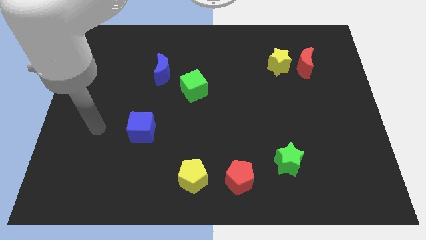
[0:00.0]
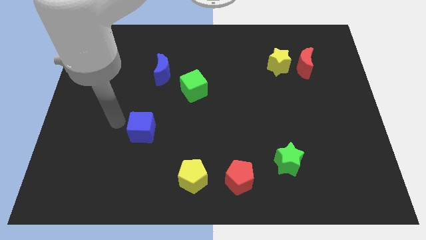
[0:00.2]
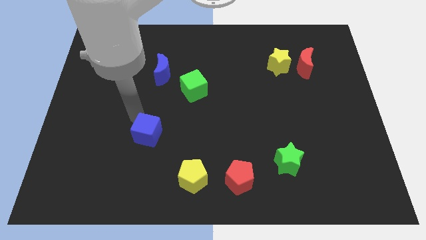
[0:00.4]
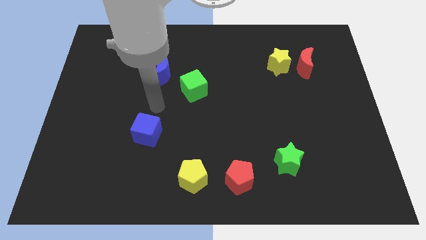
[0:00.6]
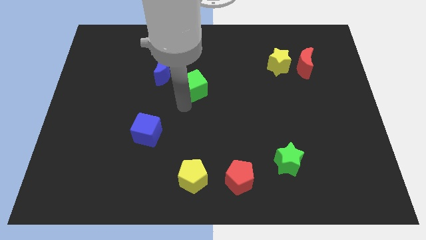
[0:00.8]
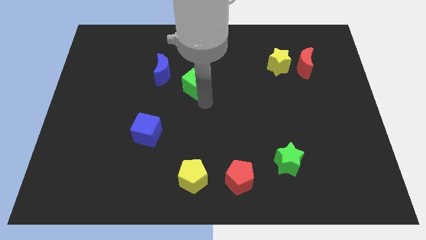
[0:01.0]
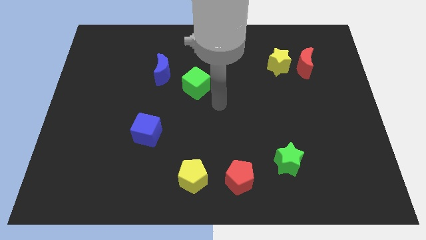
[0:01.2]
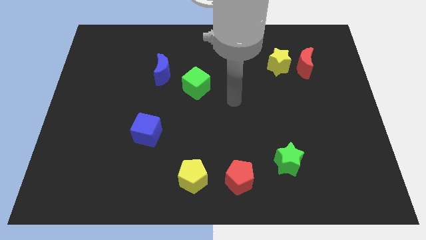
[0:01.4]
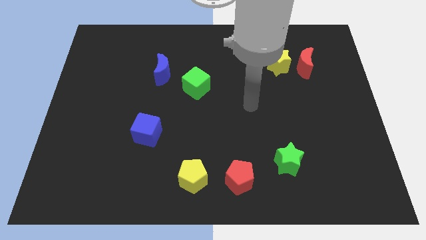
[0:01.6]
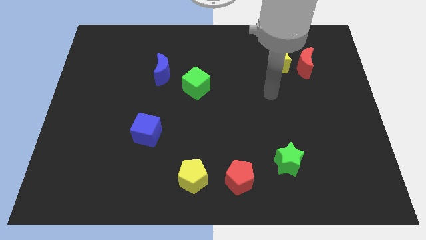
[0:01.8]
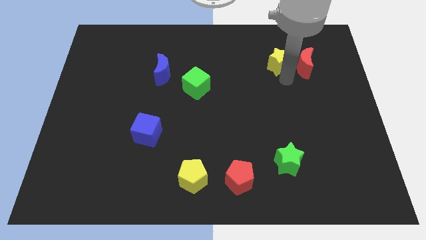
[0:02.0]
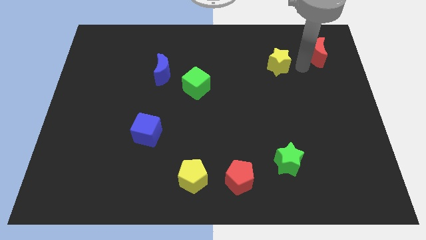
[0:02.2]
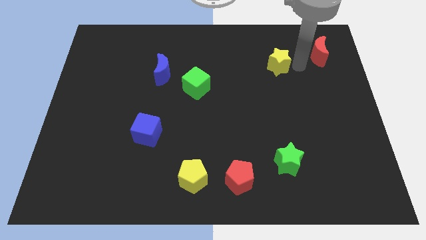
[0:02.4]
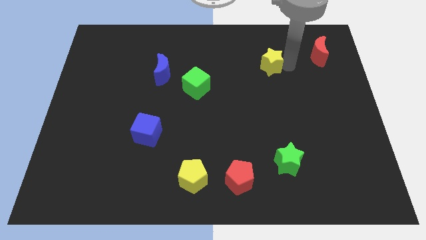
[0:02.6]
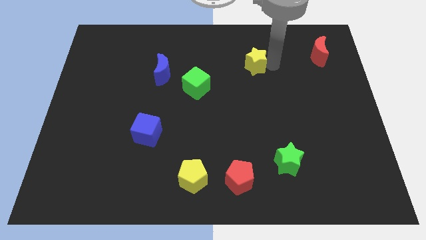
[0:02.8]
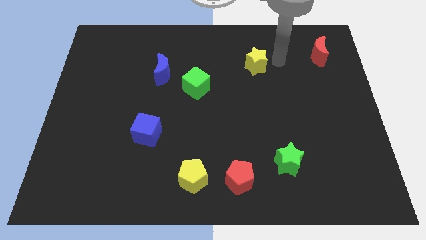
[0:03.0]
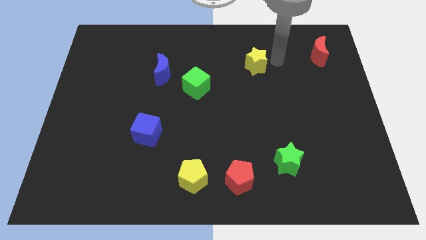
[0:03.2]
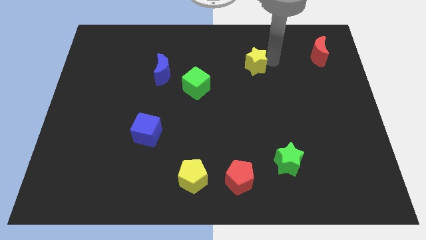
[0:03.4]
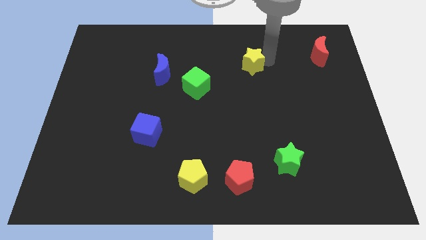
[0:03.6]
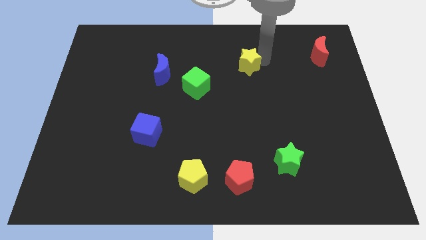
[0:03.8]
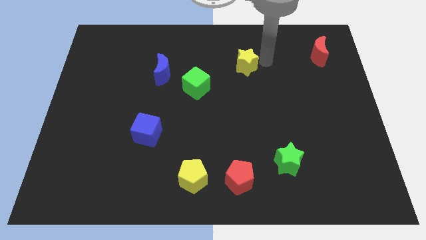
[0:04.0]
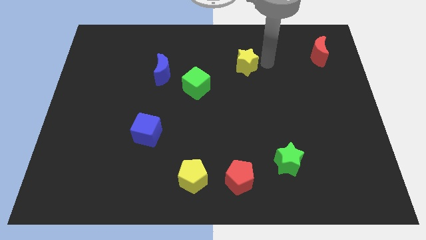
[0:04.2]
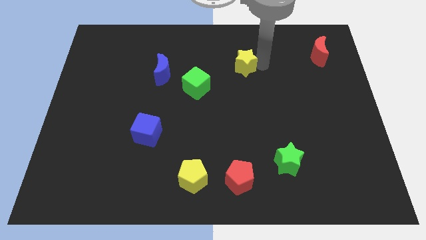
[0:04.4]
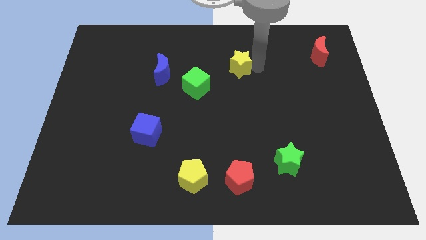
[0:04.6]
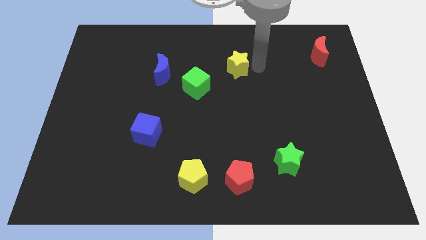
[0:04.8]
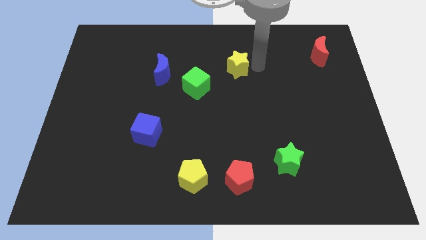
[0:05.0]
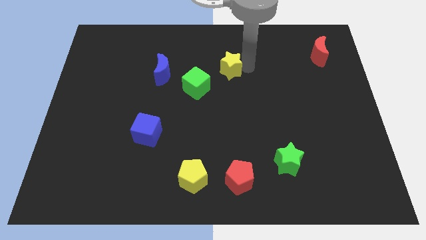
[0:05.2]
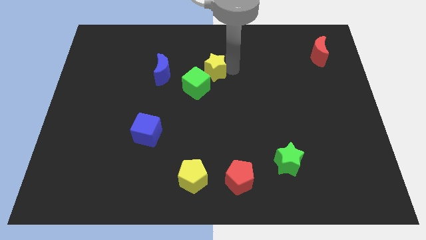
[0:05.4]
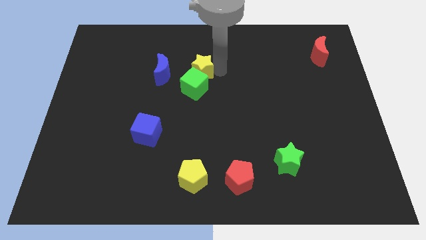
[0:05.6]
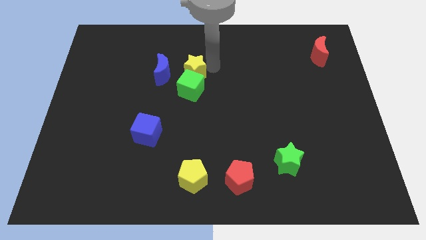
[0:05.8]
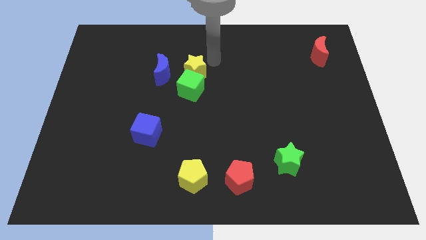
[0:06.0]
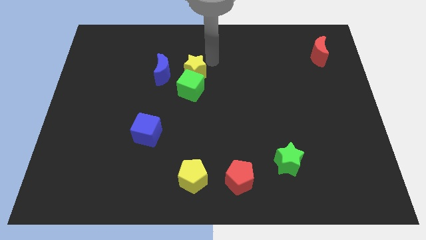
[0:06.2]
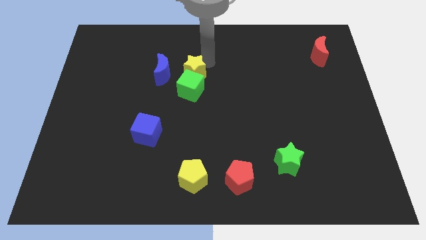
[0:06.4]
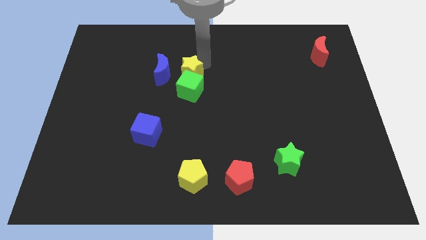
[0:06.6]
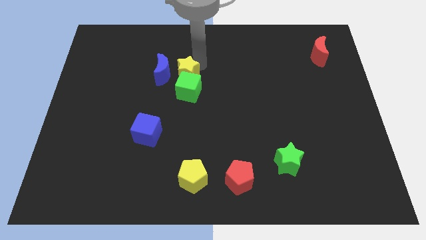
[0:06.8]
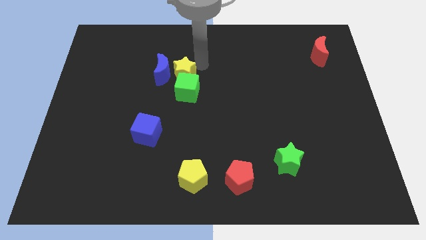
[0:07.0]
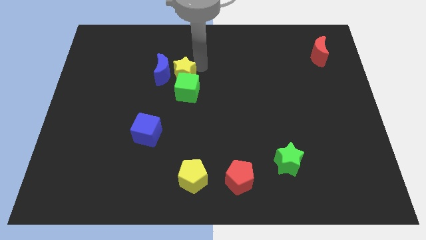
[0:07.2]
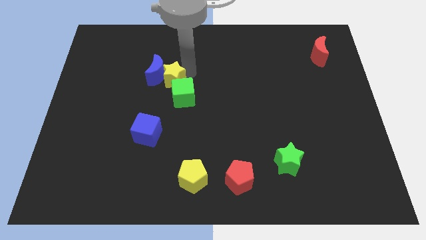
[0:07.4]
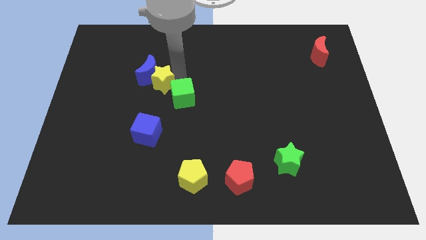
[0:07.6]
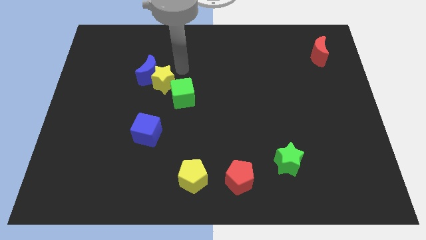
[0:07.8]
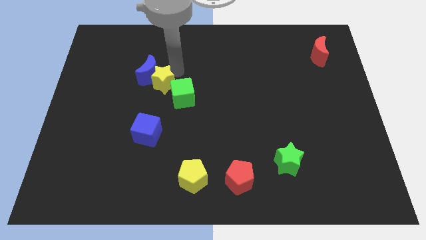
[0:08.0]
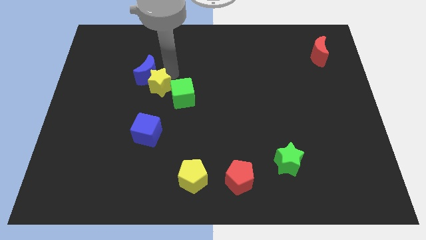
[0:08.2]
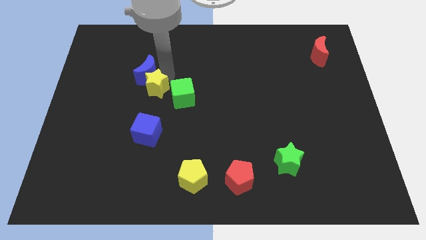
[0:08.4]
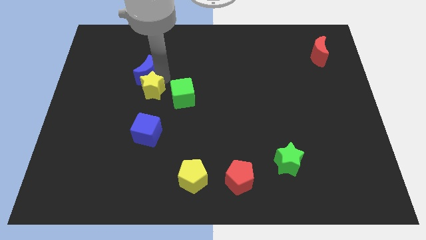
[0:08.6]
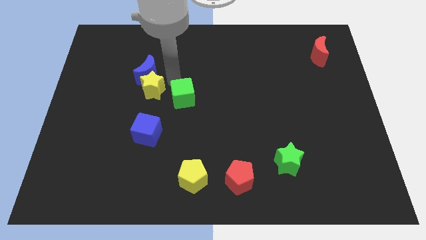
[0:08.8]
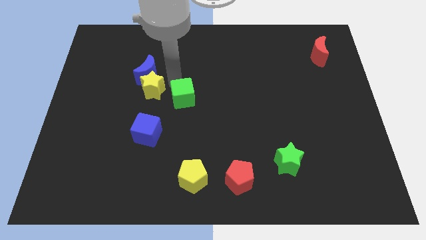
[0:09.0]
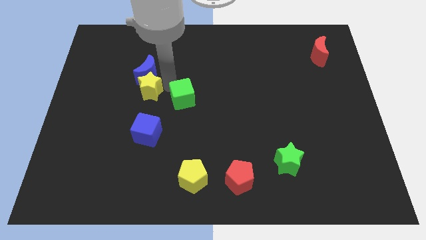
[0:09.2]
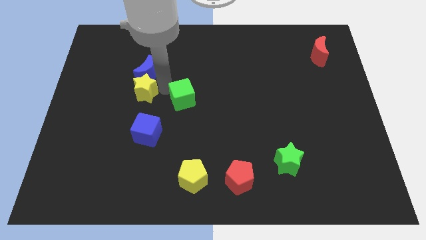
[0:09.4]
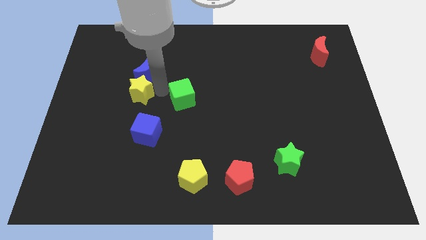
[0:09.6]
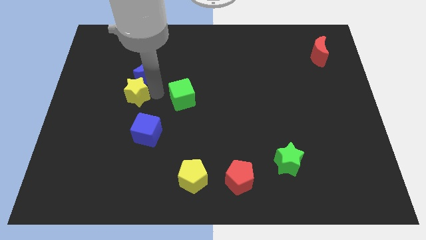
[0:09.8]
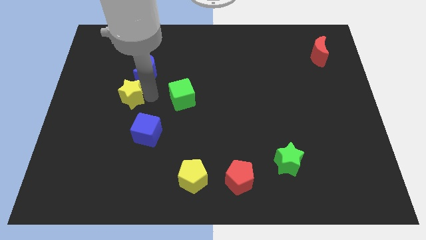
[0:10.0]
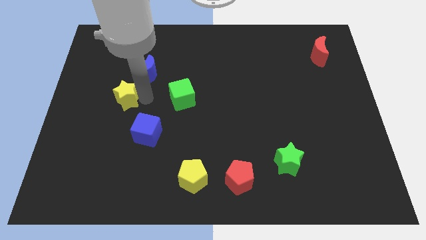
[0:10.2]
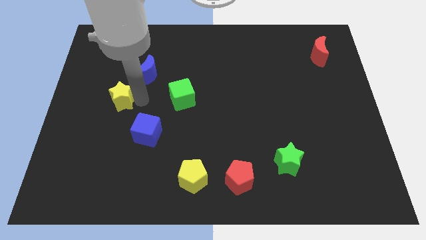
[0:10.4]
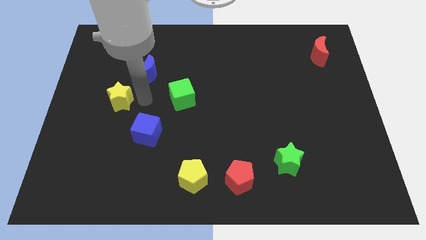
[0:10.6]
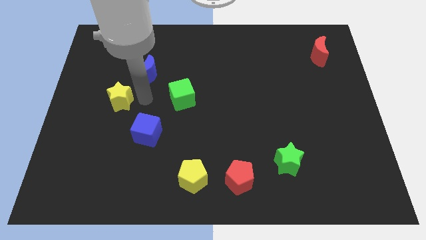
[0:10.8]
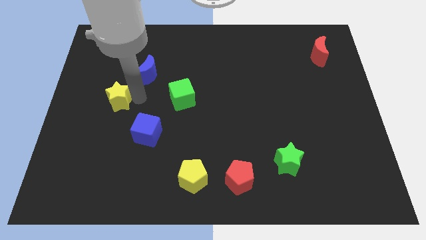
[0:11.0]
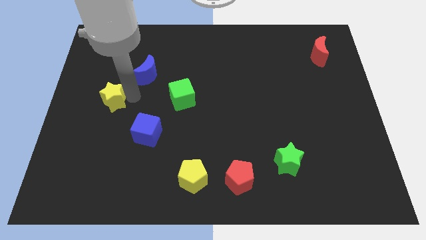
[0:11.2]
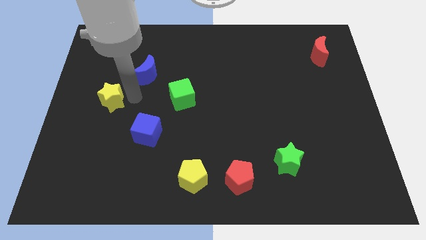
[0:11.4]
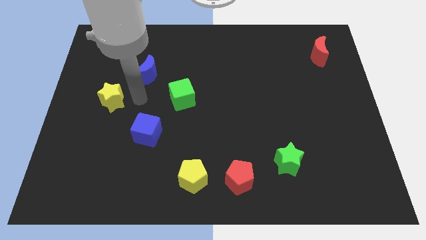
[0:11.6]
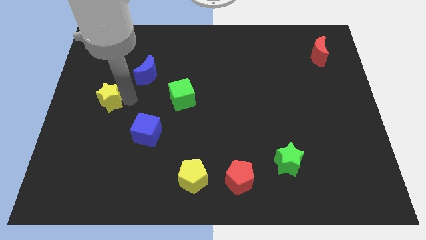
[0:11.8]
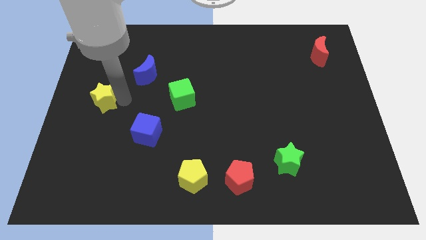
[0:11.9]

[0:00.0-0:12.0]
put the yellow star to the left side of the board
